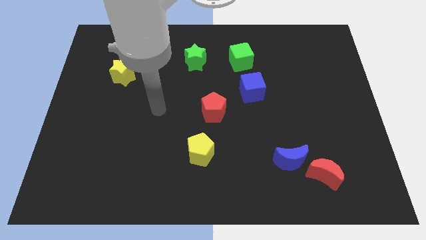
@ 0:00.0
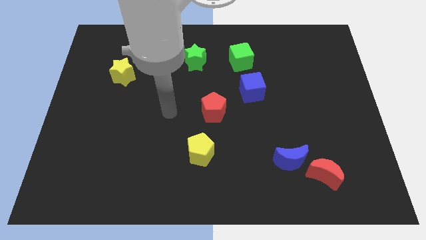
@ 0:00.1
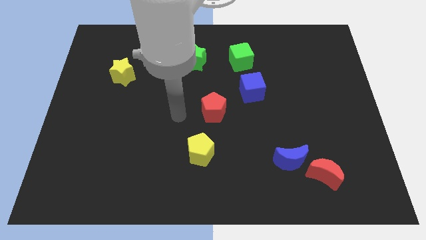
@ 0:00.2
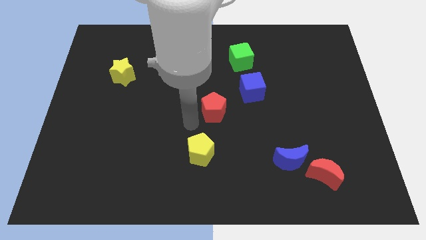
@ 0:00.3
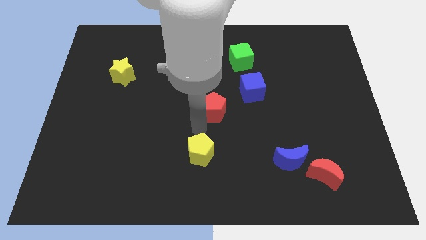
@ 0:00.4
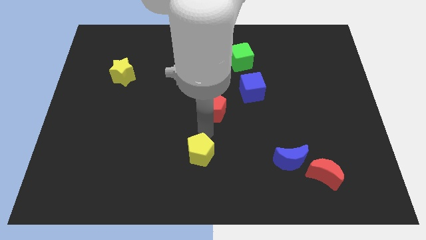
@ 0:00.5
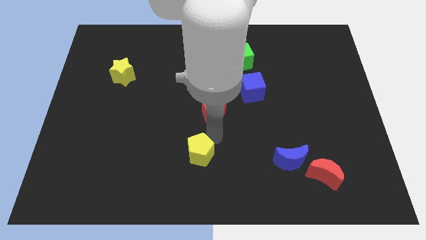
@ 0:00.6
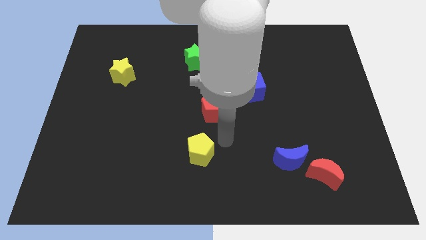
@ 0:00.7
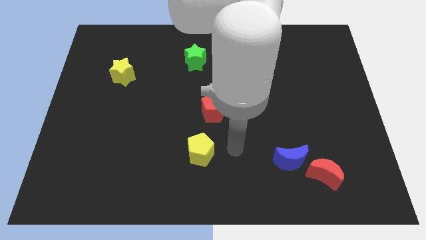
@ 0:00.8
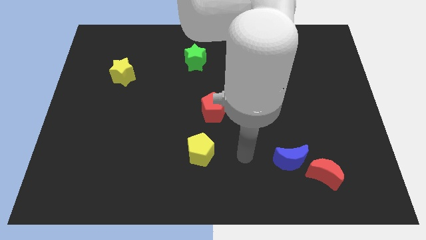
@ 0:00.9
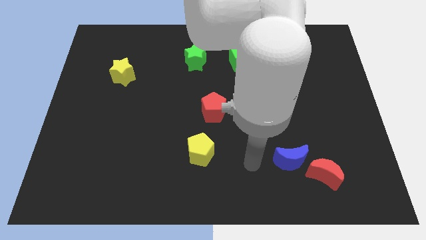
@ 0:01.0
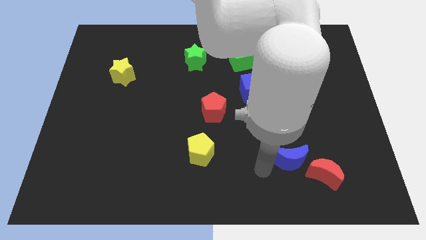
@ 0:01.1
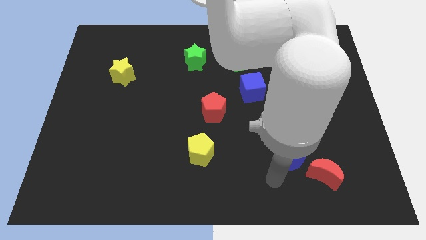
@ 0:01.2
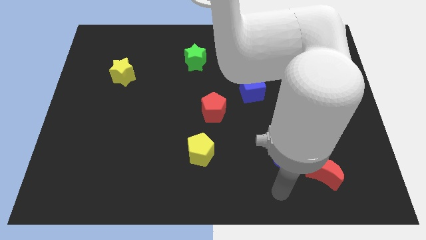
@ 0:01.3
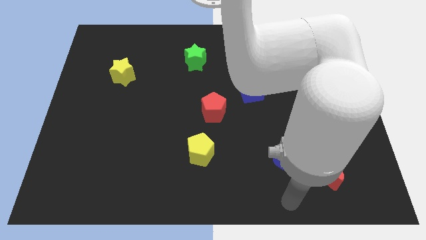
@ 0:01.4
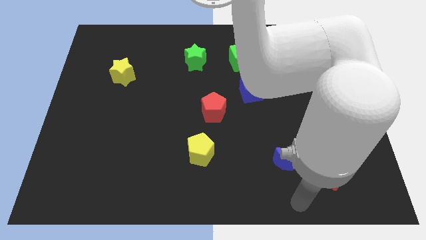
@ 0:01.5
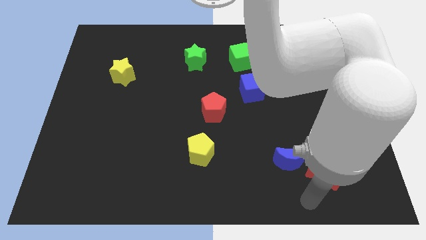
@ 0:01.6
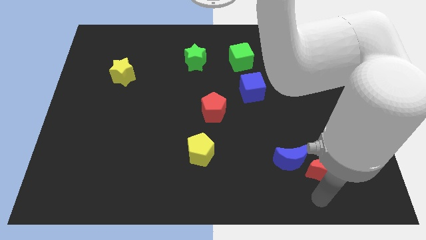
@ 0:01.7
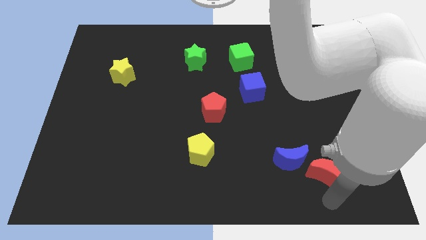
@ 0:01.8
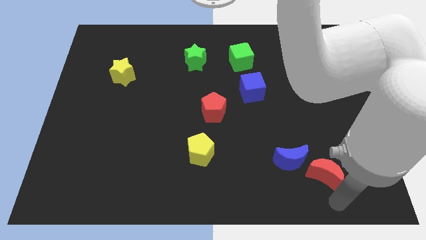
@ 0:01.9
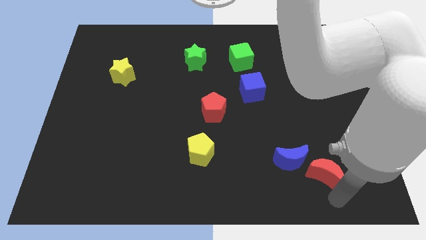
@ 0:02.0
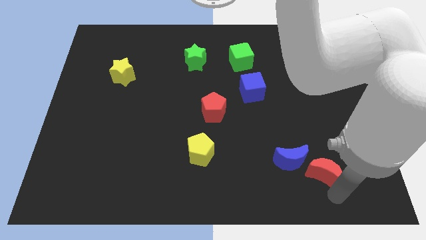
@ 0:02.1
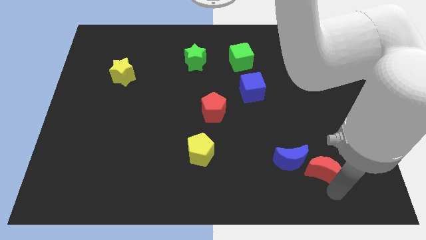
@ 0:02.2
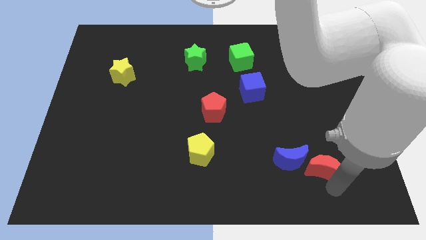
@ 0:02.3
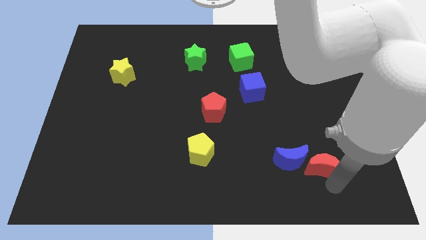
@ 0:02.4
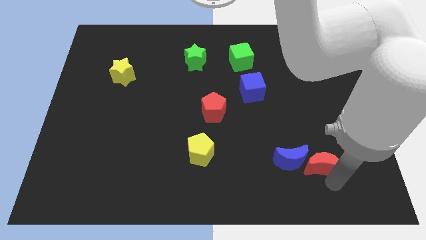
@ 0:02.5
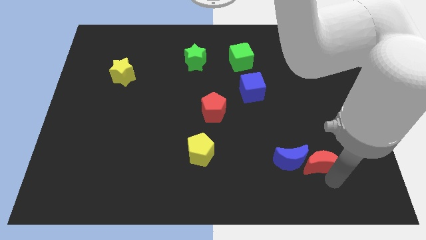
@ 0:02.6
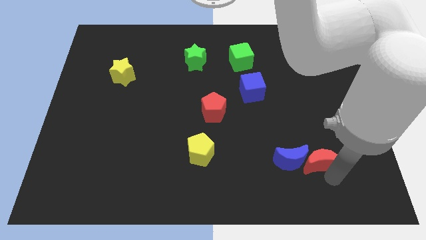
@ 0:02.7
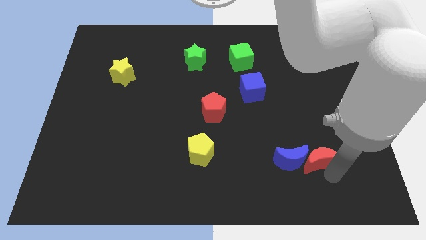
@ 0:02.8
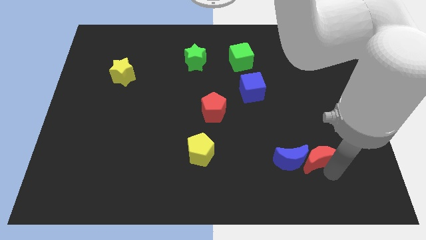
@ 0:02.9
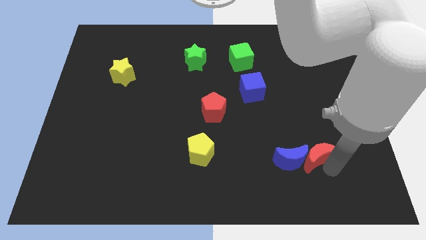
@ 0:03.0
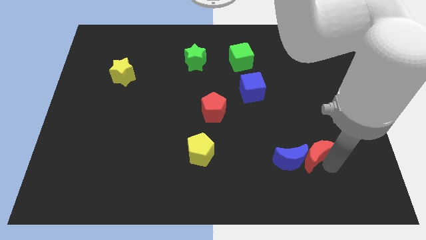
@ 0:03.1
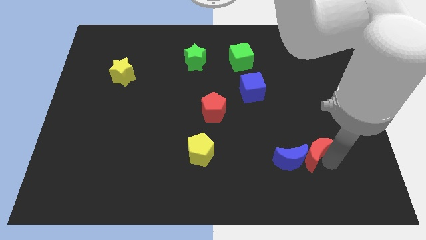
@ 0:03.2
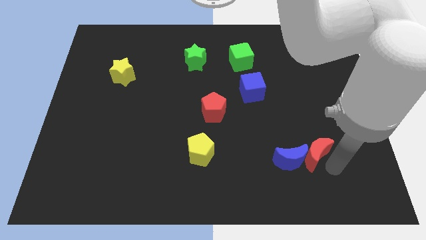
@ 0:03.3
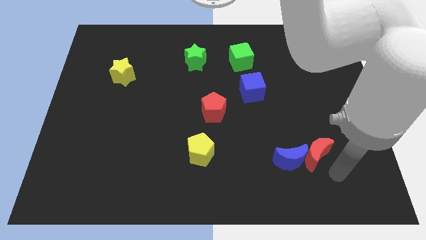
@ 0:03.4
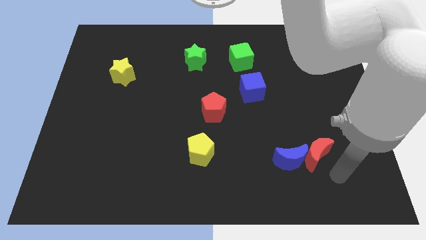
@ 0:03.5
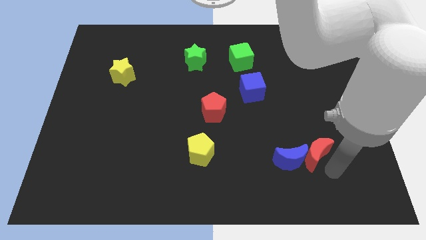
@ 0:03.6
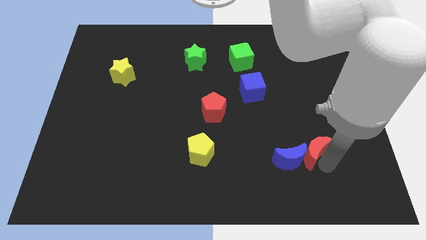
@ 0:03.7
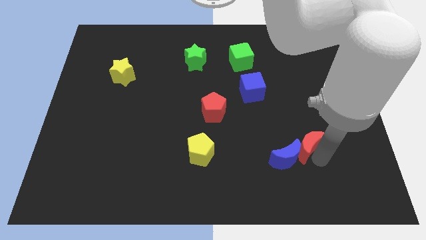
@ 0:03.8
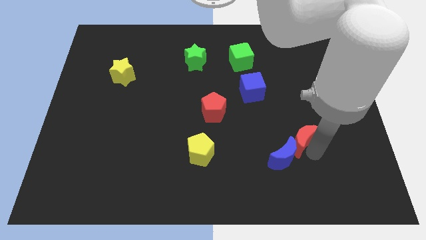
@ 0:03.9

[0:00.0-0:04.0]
move the red moon a bit upwards and to the left

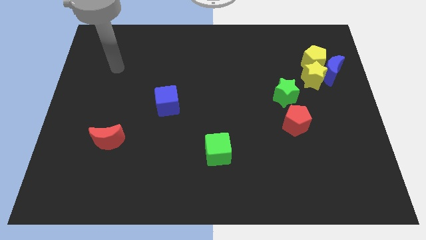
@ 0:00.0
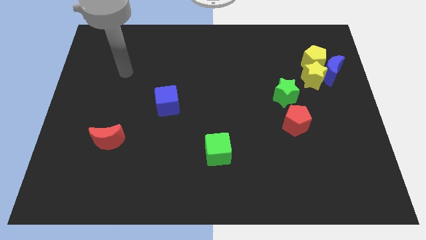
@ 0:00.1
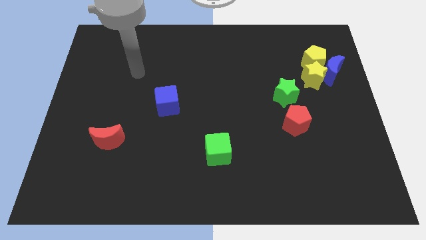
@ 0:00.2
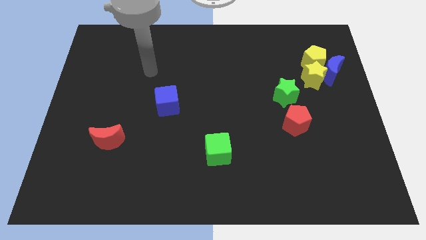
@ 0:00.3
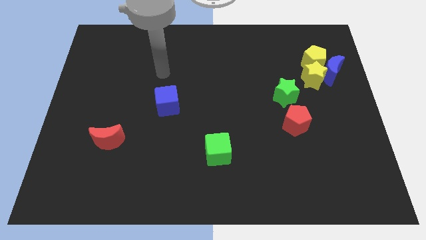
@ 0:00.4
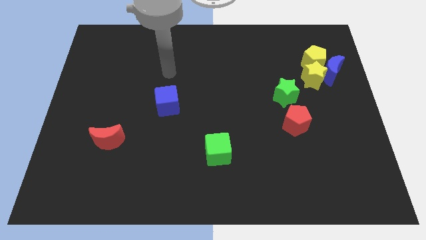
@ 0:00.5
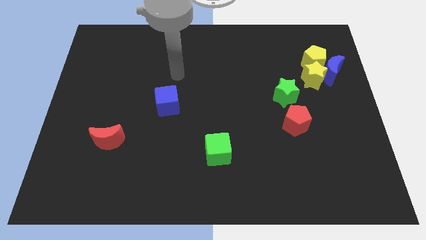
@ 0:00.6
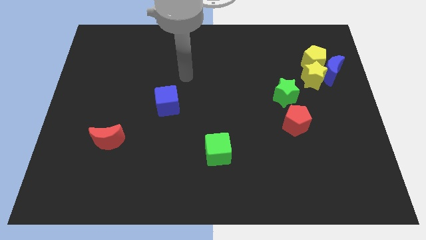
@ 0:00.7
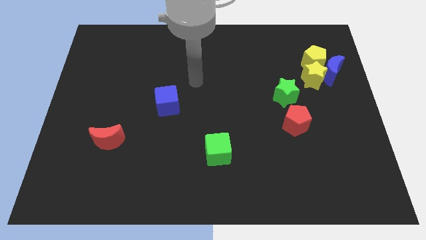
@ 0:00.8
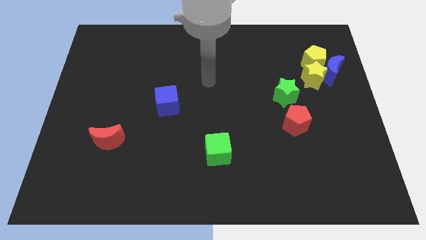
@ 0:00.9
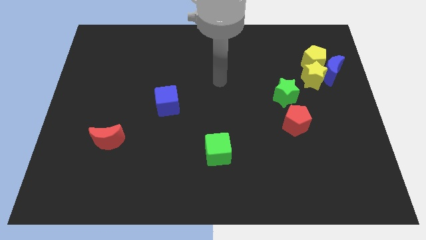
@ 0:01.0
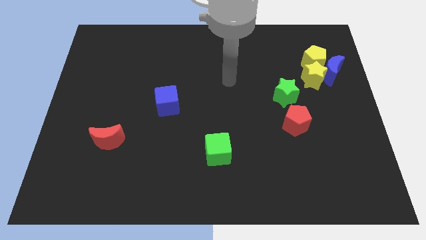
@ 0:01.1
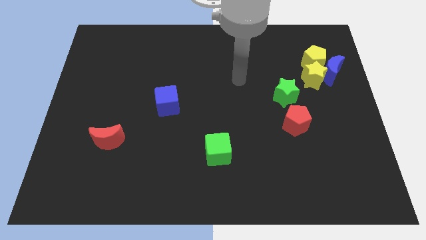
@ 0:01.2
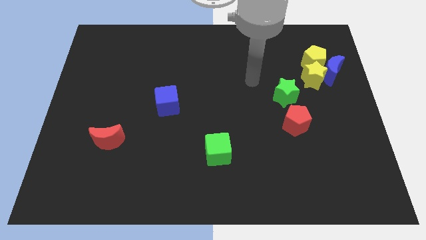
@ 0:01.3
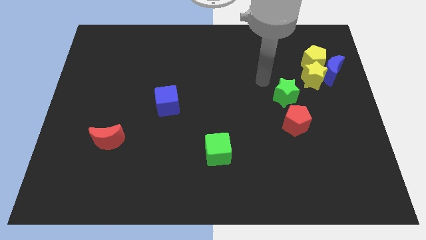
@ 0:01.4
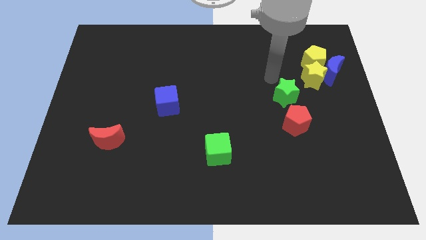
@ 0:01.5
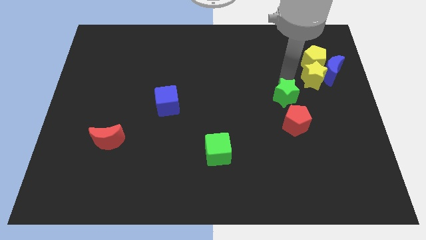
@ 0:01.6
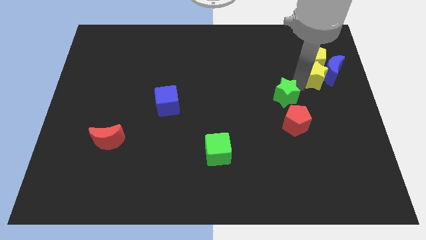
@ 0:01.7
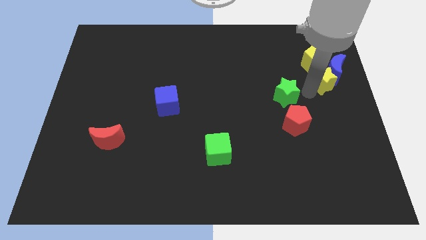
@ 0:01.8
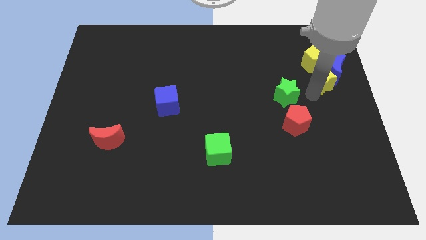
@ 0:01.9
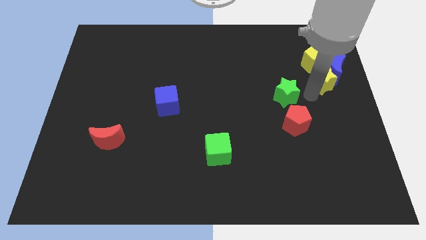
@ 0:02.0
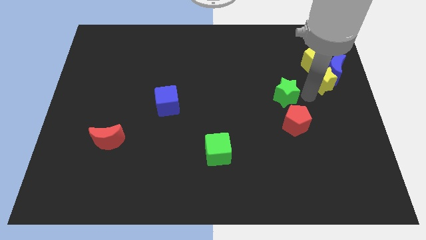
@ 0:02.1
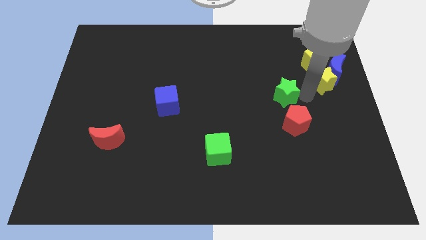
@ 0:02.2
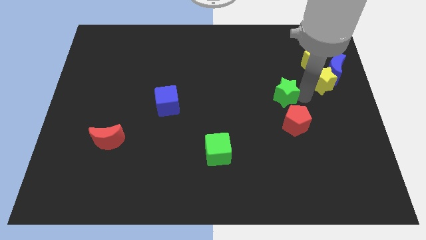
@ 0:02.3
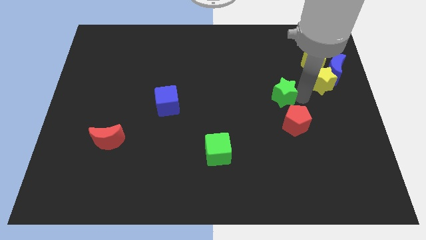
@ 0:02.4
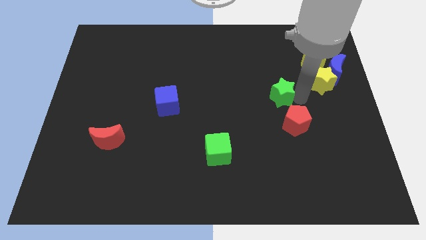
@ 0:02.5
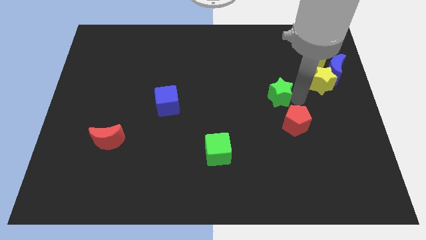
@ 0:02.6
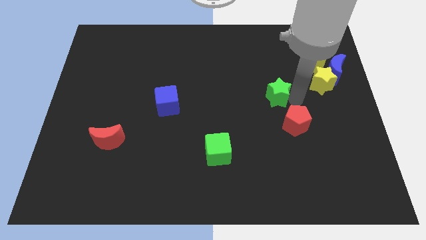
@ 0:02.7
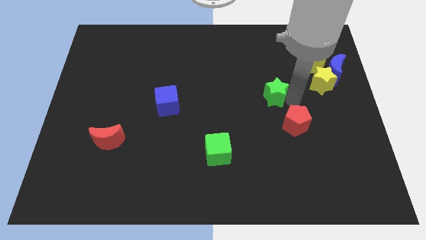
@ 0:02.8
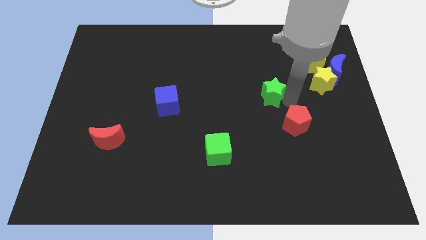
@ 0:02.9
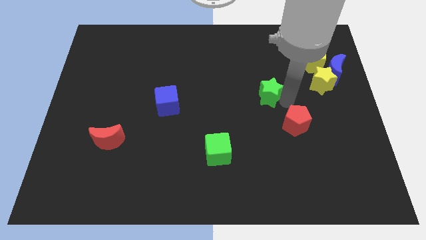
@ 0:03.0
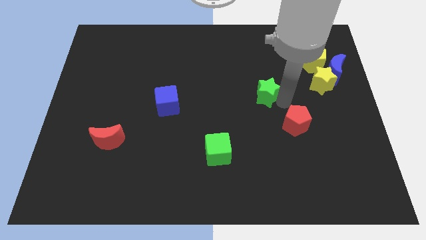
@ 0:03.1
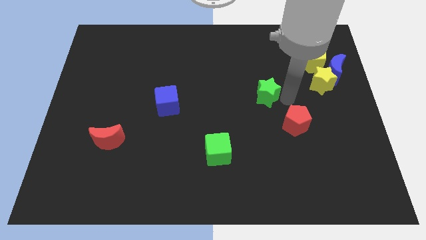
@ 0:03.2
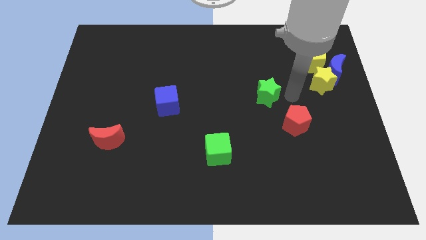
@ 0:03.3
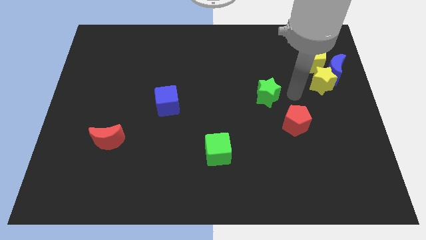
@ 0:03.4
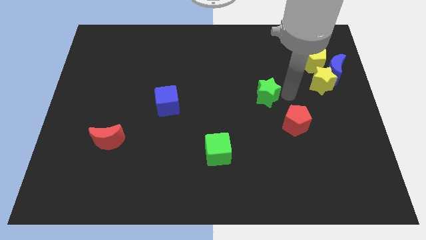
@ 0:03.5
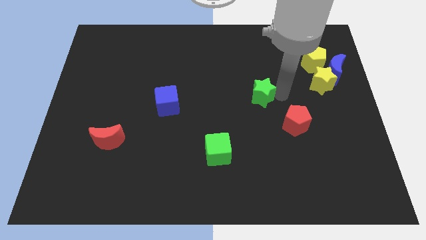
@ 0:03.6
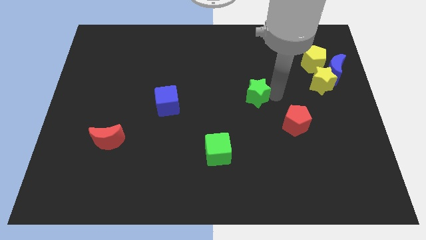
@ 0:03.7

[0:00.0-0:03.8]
slightly move the green star to the left
